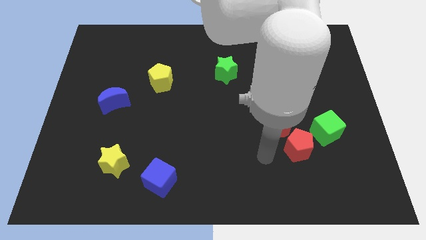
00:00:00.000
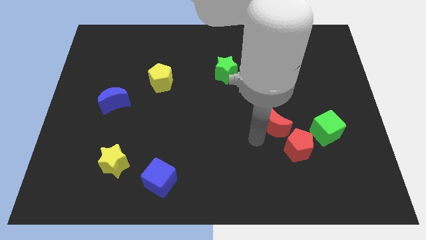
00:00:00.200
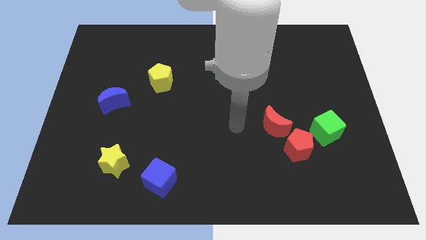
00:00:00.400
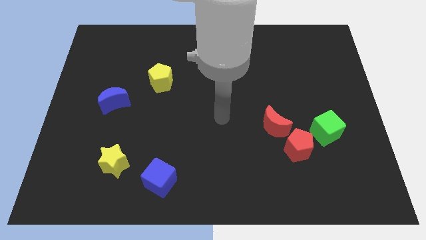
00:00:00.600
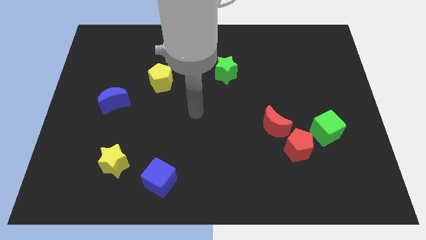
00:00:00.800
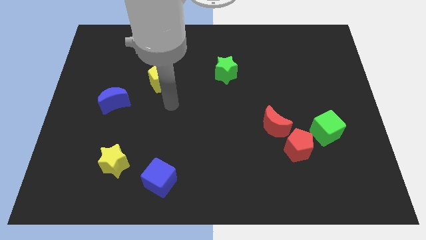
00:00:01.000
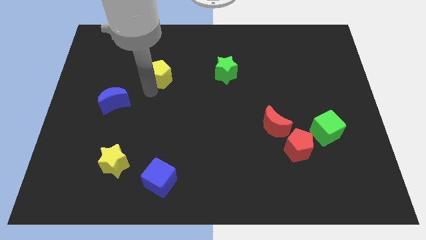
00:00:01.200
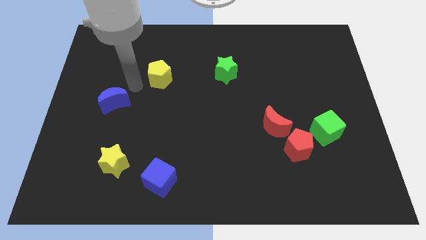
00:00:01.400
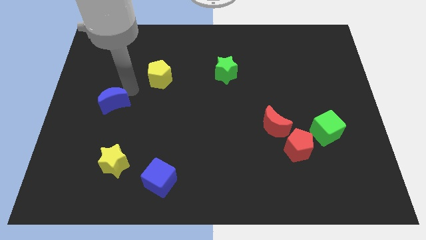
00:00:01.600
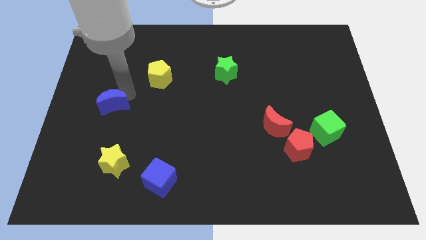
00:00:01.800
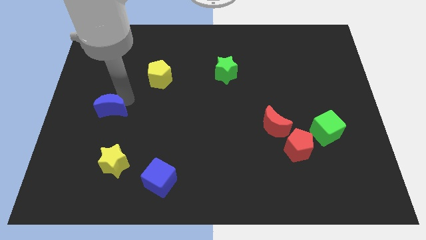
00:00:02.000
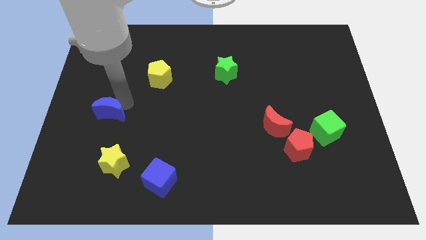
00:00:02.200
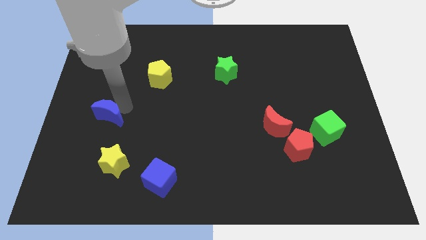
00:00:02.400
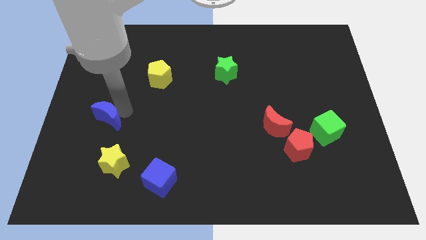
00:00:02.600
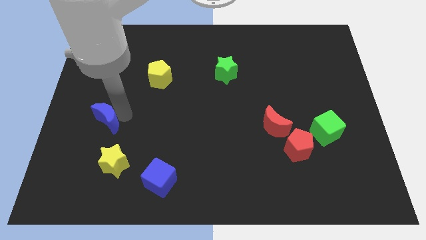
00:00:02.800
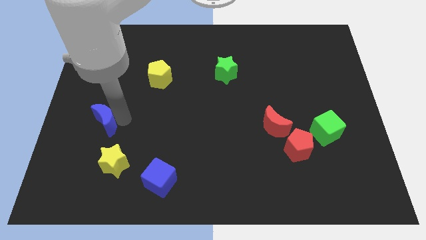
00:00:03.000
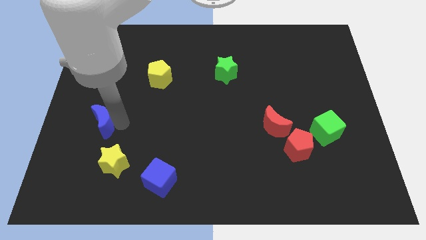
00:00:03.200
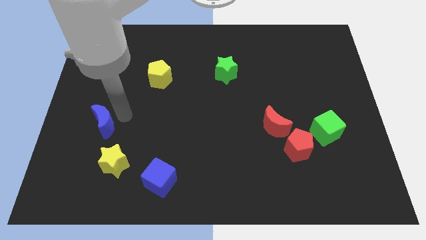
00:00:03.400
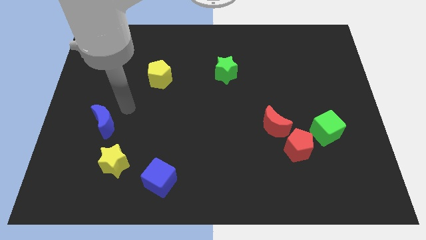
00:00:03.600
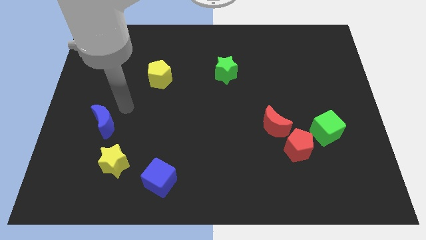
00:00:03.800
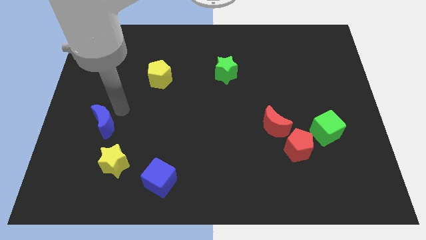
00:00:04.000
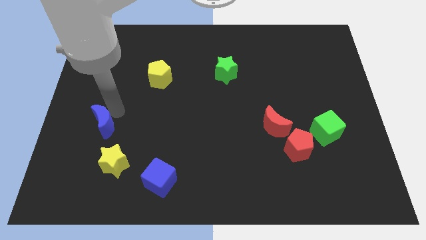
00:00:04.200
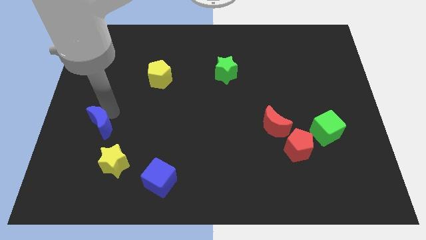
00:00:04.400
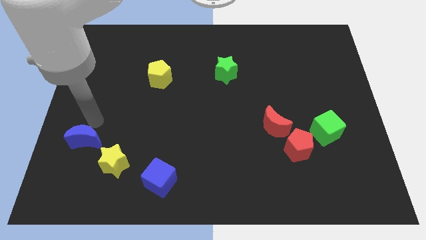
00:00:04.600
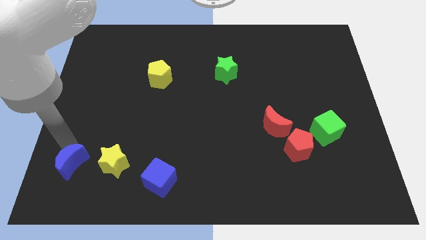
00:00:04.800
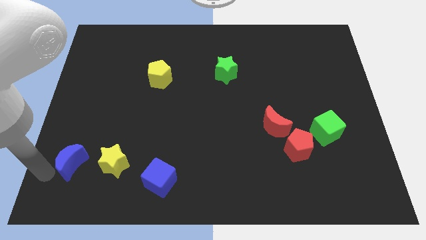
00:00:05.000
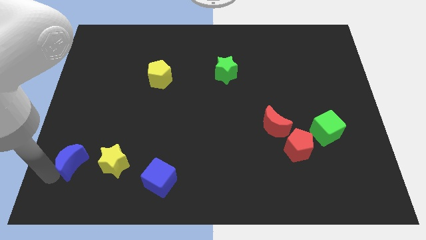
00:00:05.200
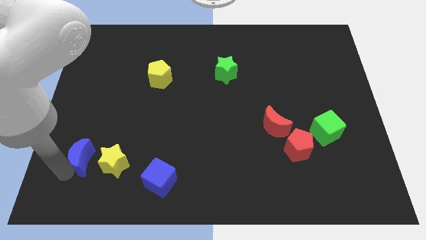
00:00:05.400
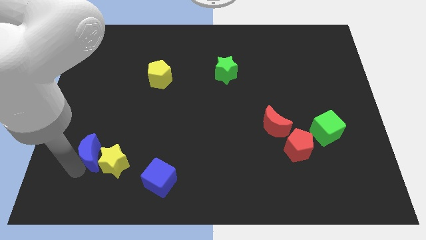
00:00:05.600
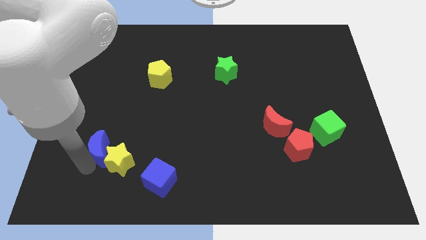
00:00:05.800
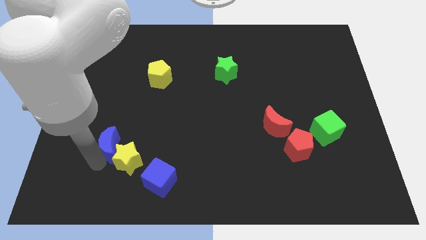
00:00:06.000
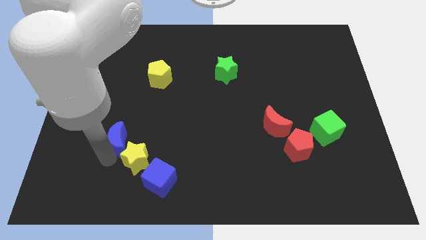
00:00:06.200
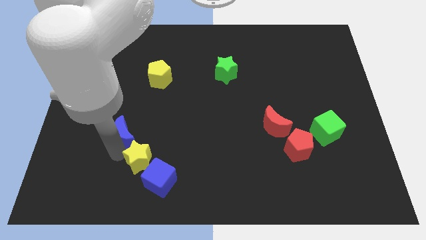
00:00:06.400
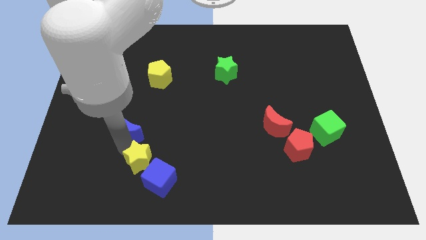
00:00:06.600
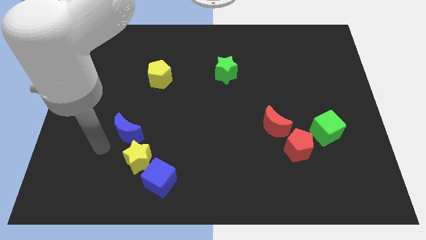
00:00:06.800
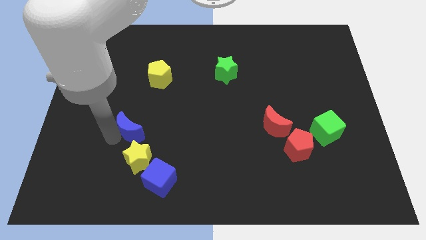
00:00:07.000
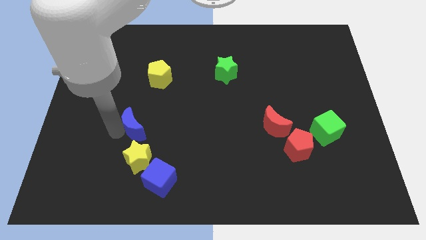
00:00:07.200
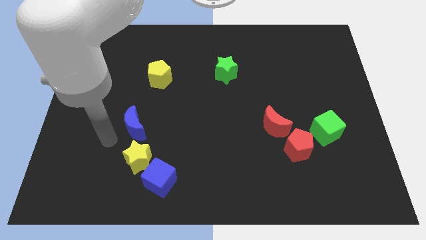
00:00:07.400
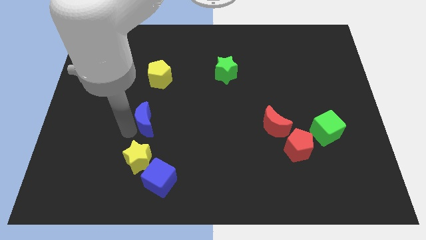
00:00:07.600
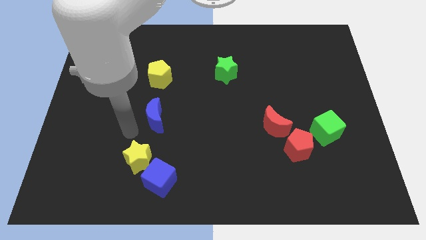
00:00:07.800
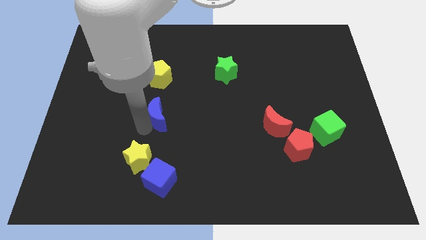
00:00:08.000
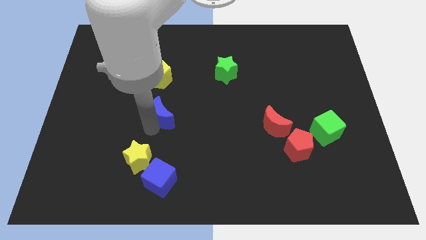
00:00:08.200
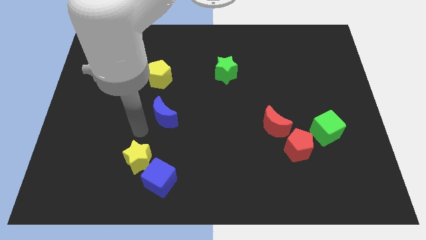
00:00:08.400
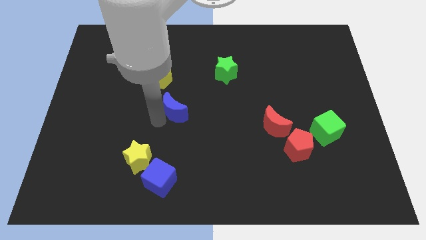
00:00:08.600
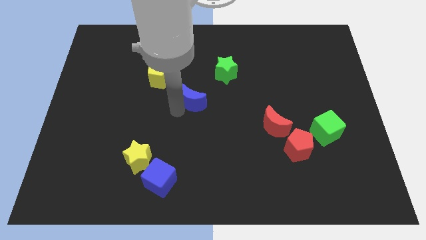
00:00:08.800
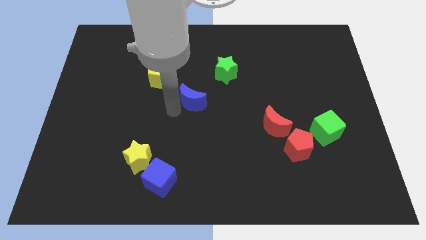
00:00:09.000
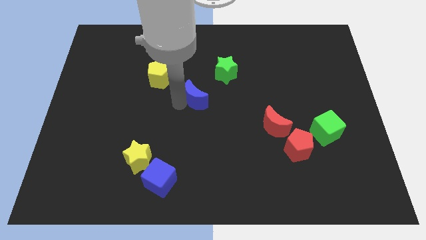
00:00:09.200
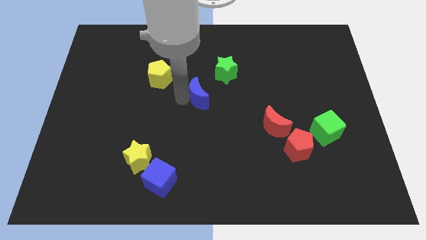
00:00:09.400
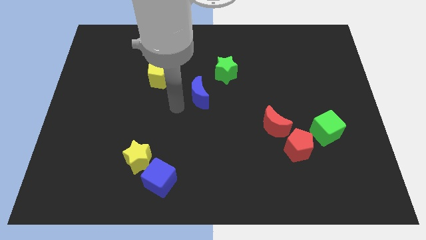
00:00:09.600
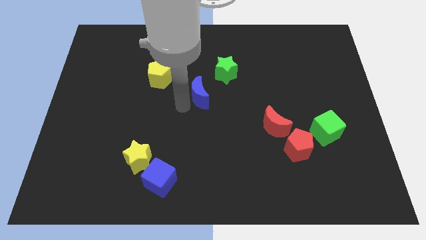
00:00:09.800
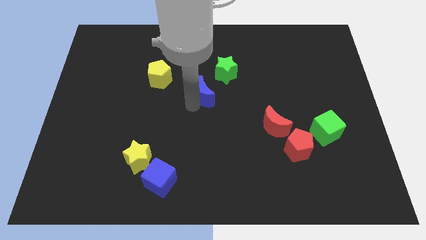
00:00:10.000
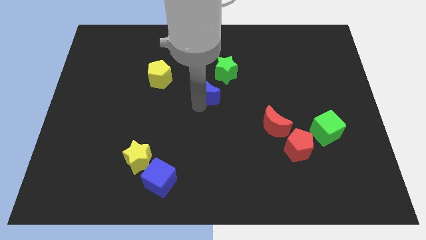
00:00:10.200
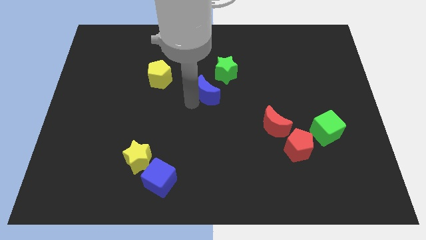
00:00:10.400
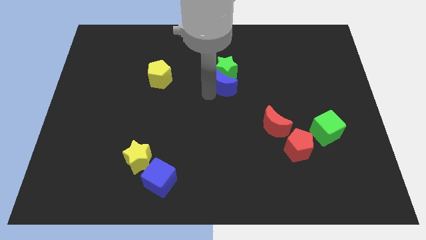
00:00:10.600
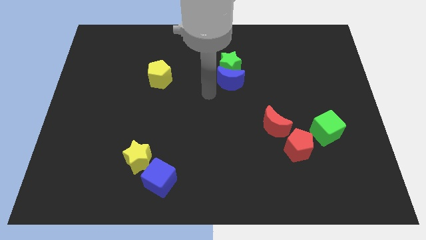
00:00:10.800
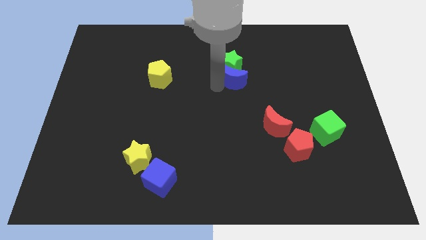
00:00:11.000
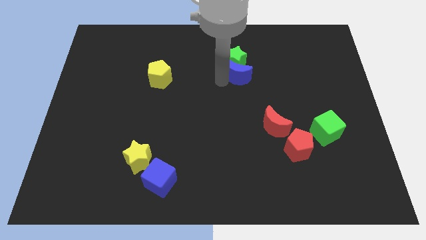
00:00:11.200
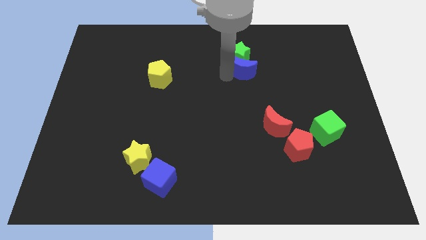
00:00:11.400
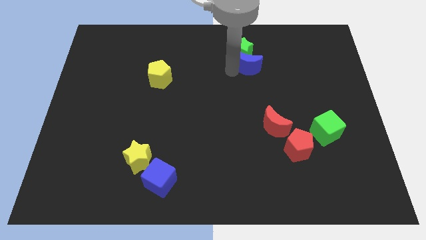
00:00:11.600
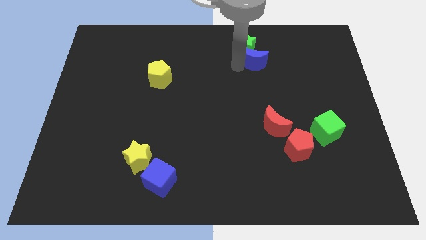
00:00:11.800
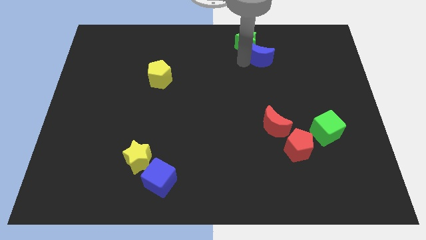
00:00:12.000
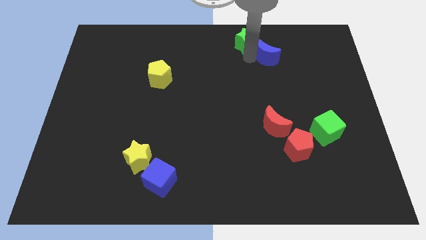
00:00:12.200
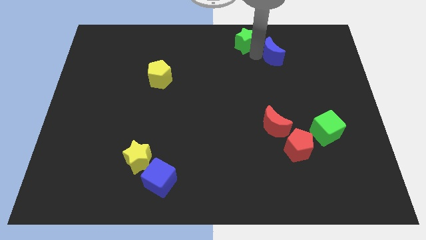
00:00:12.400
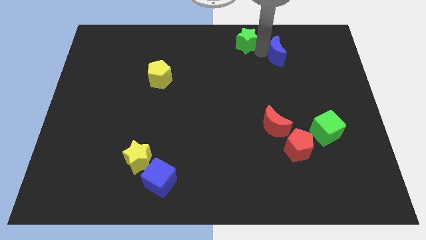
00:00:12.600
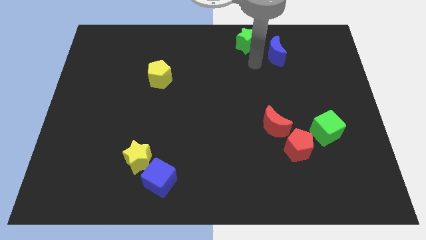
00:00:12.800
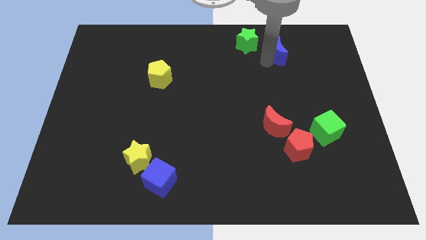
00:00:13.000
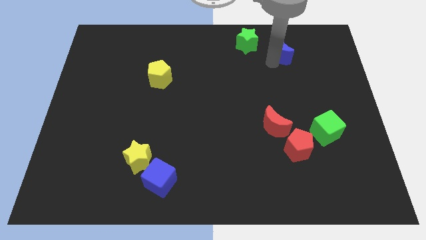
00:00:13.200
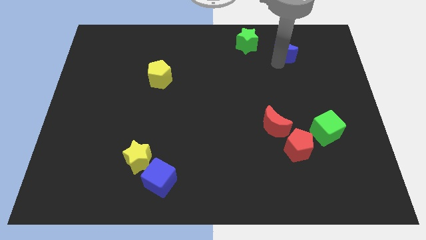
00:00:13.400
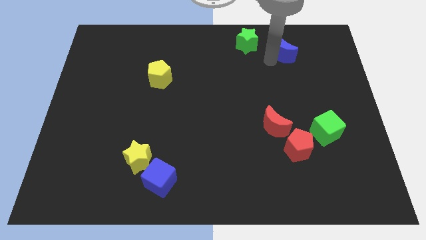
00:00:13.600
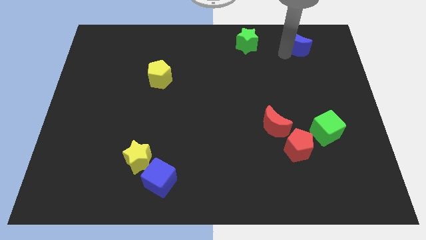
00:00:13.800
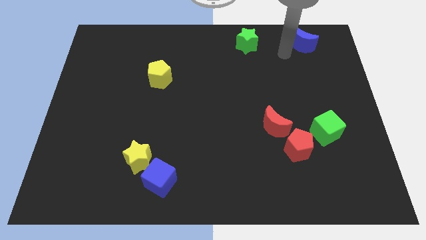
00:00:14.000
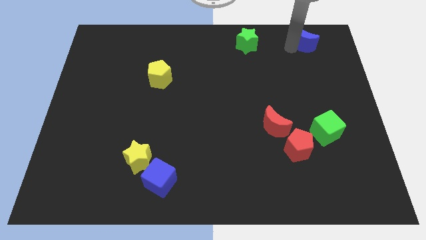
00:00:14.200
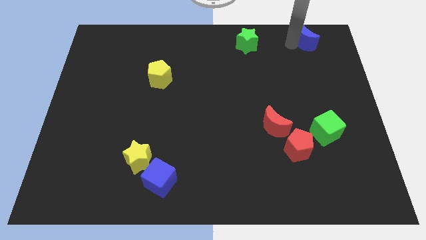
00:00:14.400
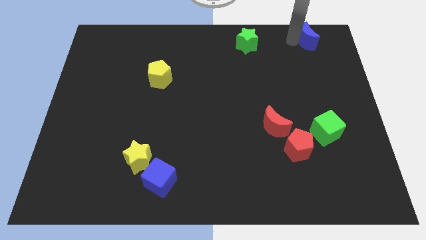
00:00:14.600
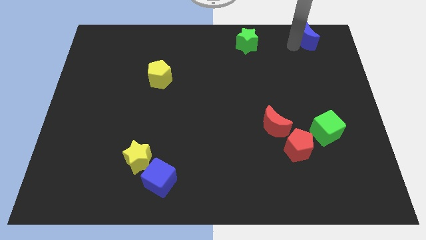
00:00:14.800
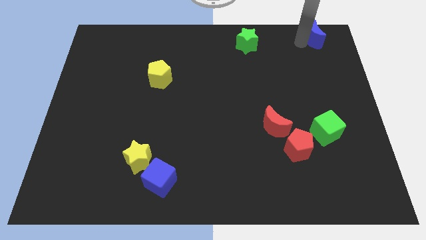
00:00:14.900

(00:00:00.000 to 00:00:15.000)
move the blue moon to the upper right corner
